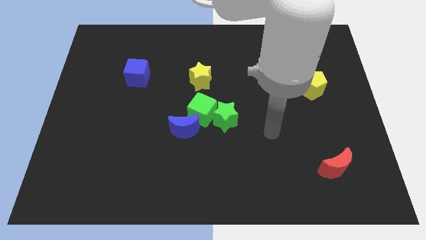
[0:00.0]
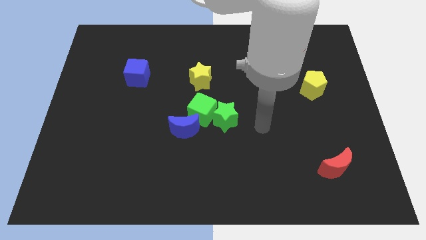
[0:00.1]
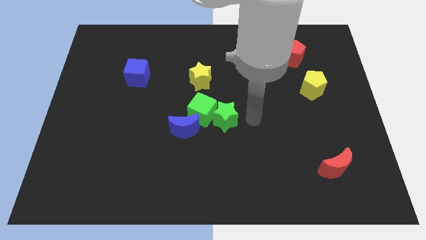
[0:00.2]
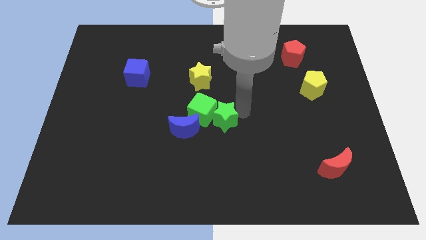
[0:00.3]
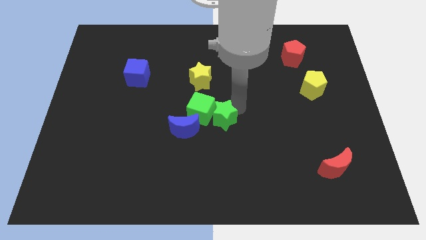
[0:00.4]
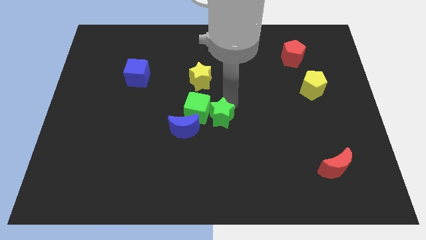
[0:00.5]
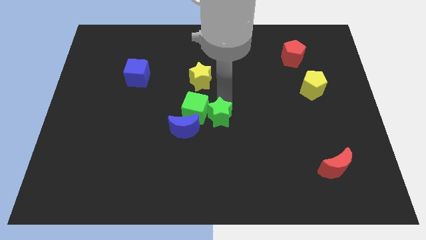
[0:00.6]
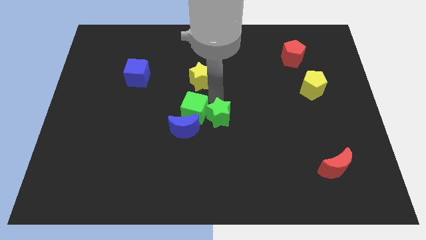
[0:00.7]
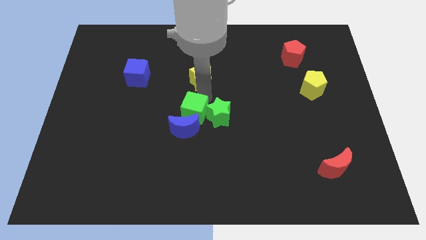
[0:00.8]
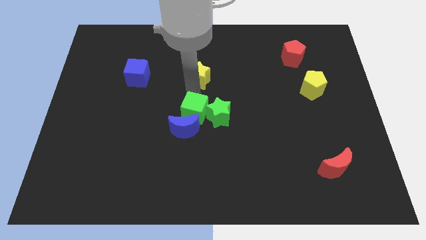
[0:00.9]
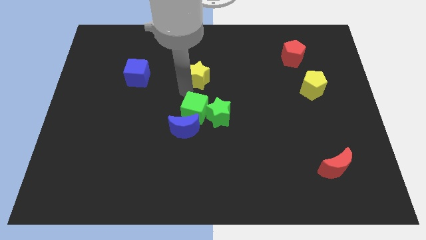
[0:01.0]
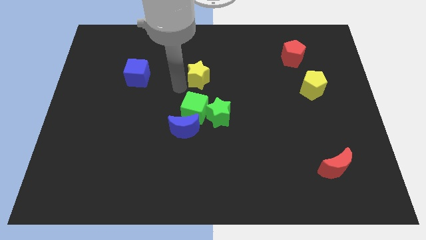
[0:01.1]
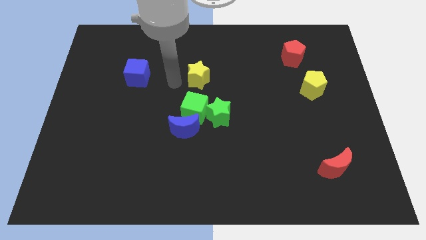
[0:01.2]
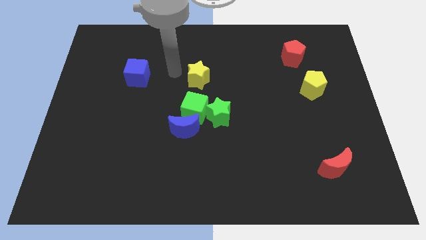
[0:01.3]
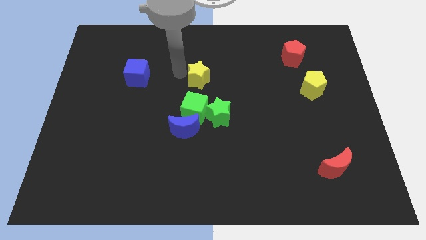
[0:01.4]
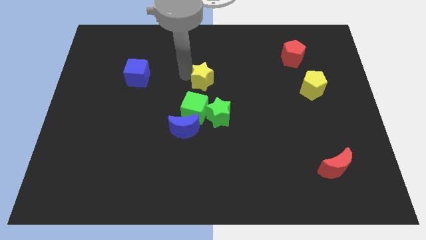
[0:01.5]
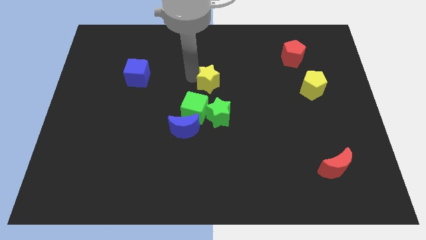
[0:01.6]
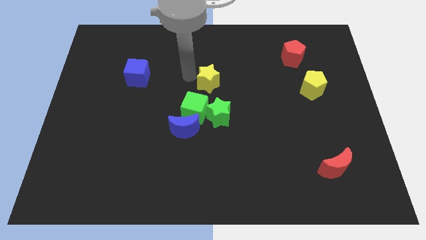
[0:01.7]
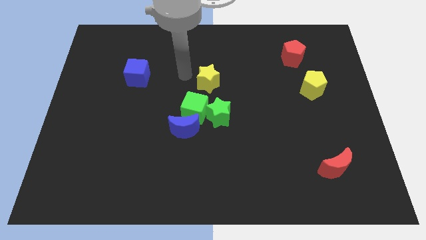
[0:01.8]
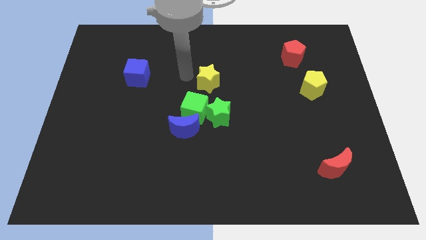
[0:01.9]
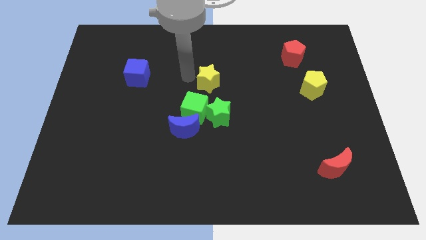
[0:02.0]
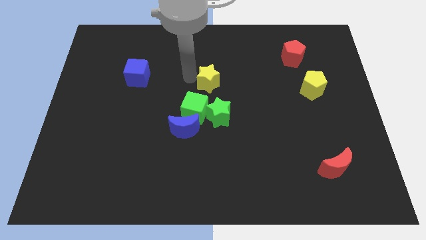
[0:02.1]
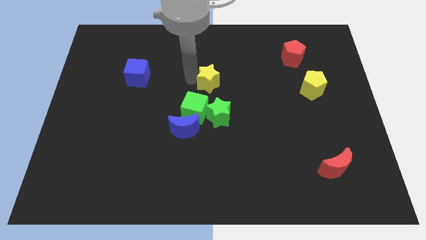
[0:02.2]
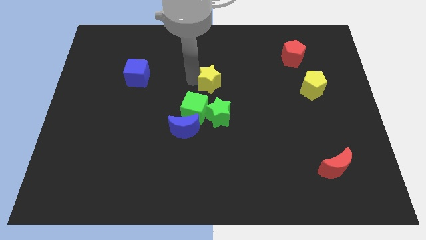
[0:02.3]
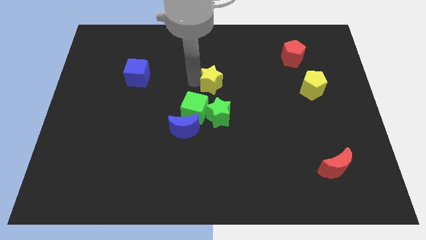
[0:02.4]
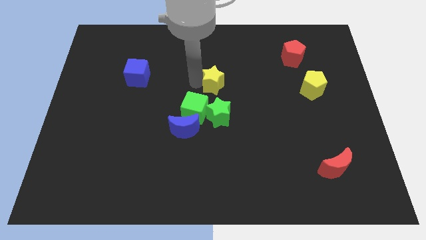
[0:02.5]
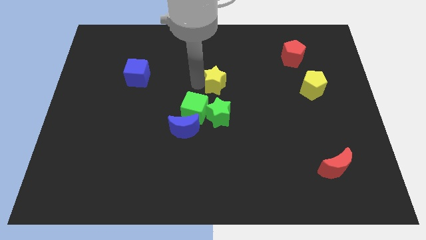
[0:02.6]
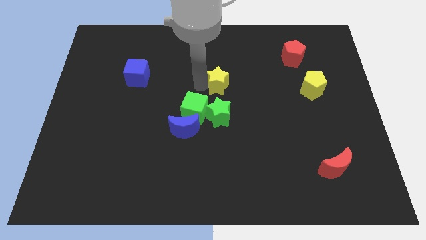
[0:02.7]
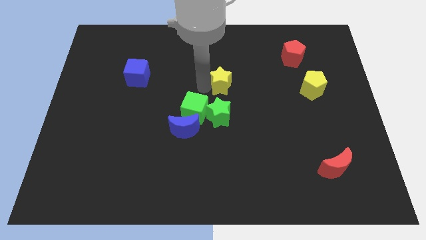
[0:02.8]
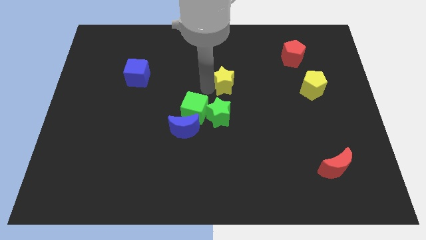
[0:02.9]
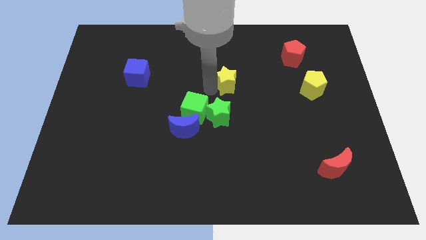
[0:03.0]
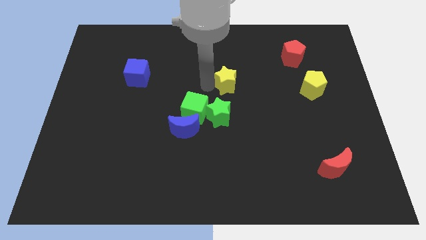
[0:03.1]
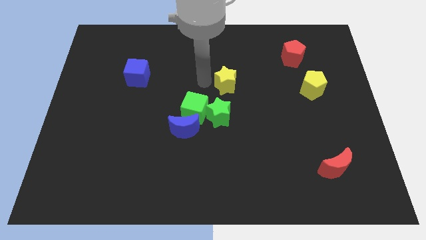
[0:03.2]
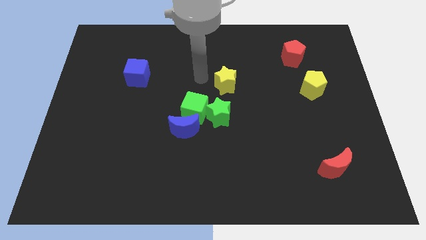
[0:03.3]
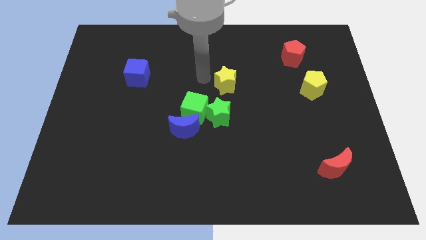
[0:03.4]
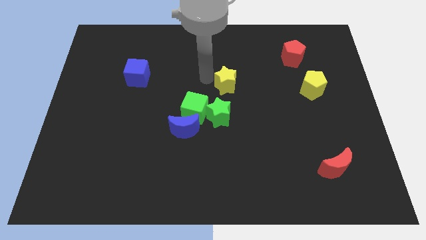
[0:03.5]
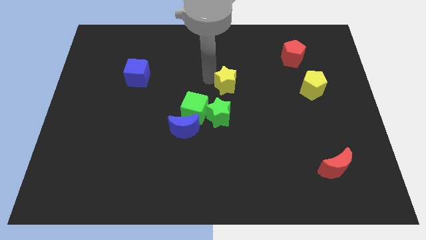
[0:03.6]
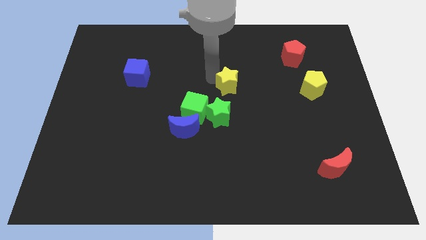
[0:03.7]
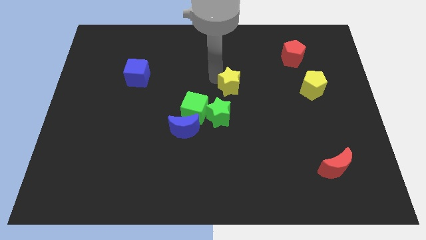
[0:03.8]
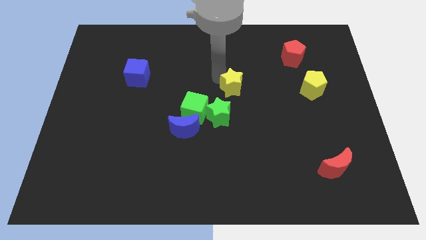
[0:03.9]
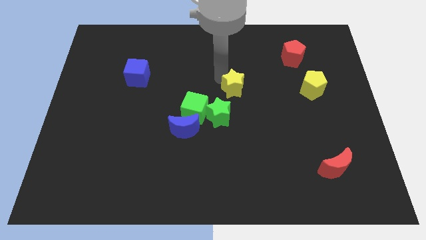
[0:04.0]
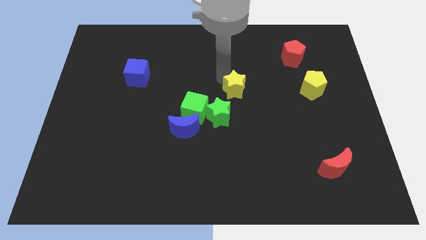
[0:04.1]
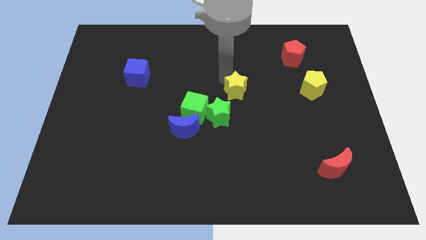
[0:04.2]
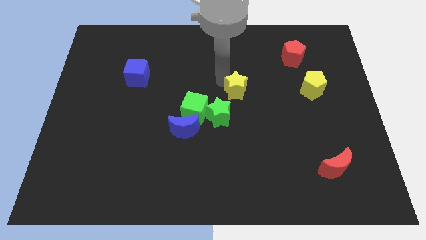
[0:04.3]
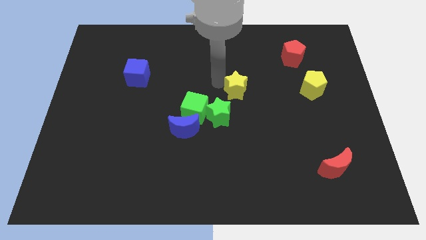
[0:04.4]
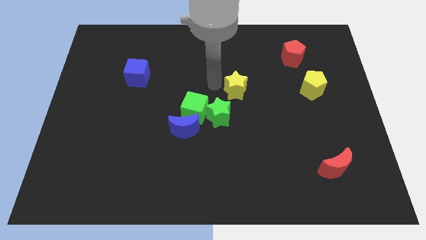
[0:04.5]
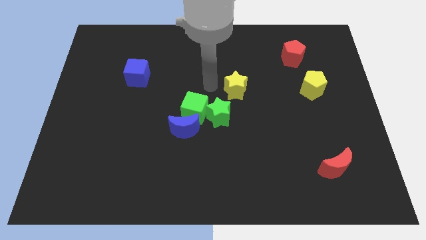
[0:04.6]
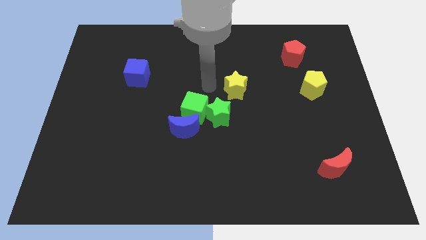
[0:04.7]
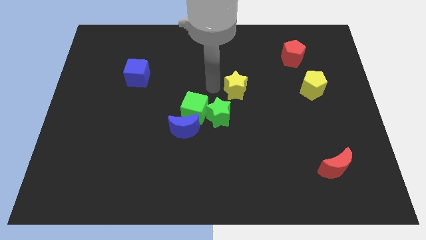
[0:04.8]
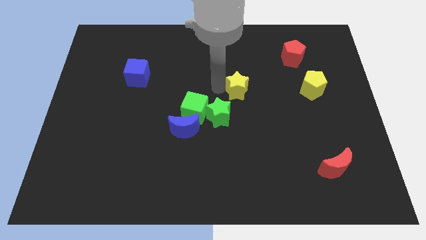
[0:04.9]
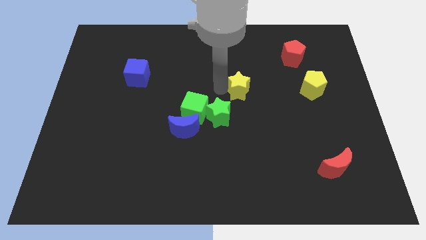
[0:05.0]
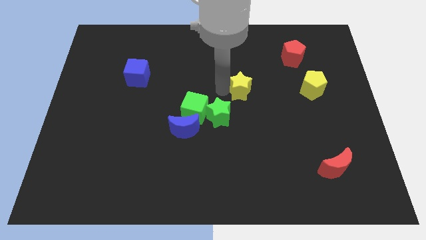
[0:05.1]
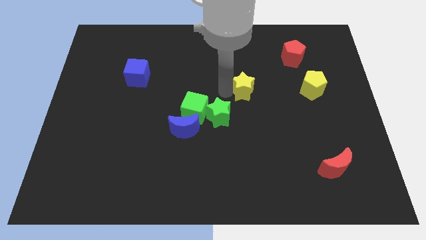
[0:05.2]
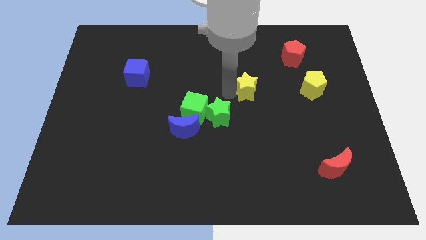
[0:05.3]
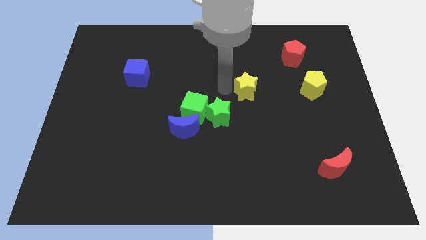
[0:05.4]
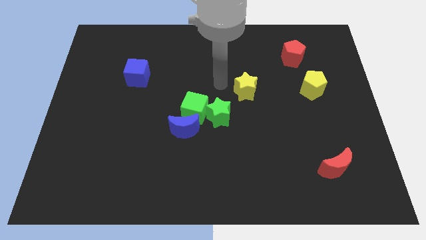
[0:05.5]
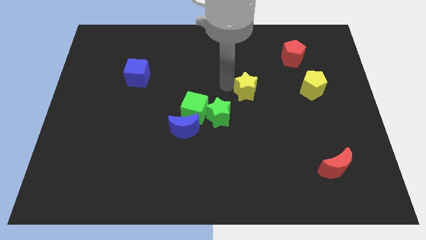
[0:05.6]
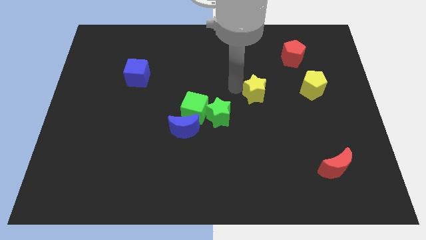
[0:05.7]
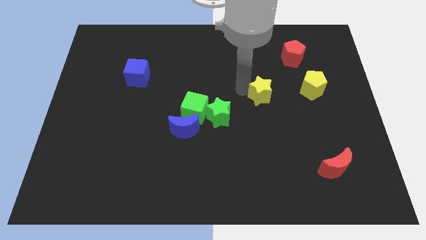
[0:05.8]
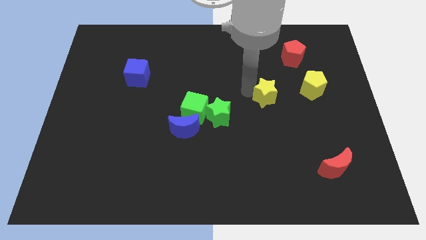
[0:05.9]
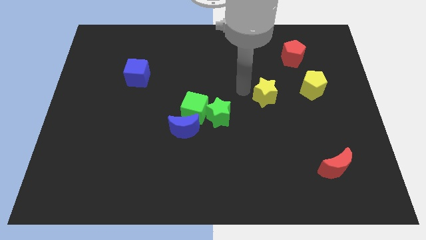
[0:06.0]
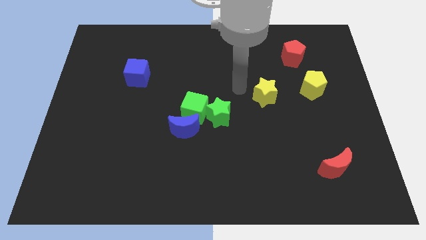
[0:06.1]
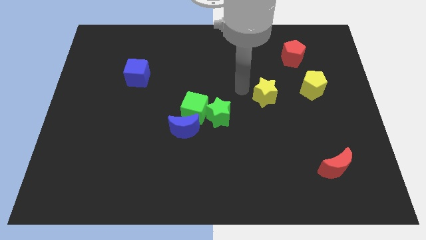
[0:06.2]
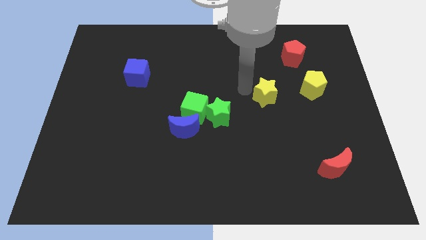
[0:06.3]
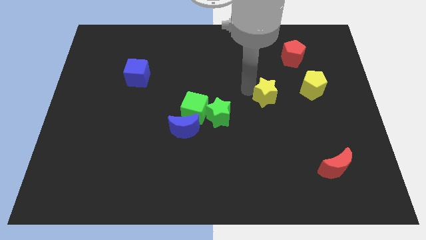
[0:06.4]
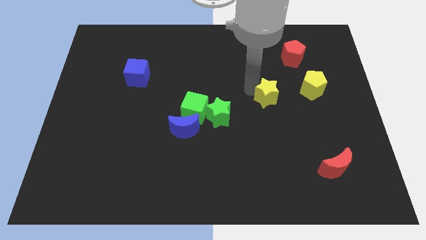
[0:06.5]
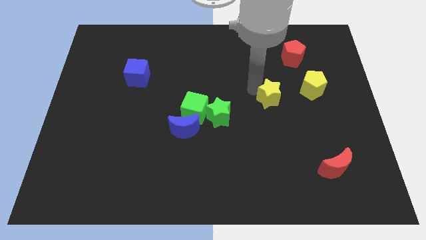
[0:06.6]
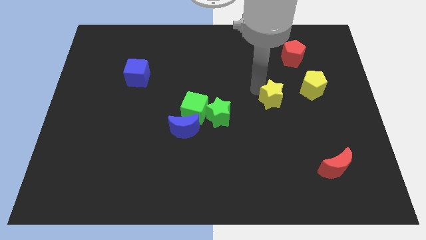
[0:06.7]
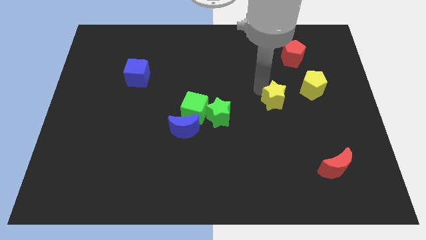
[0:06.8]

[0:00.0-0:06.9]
put the yellow star diagonally down and to the left of the yellow pentagon

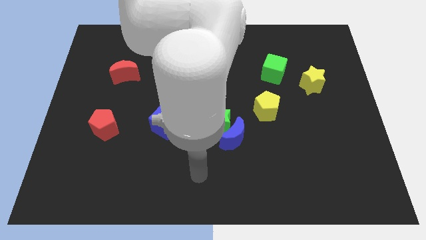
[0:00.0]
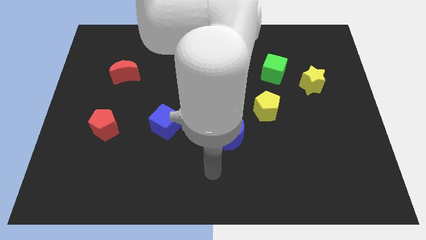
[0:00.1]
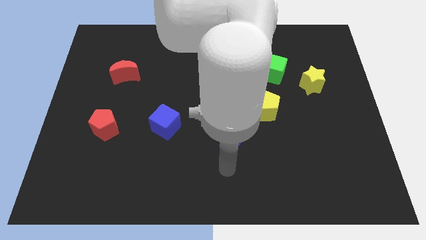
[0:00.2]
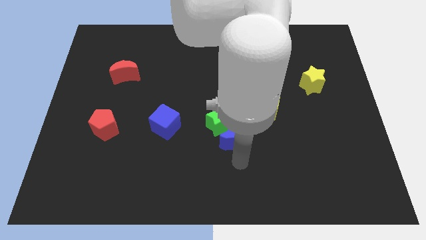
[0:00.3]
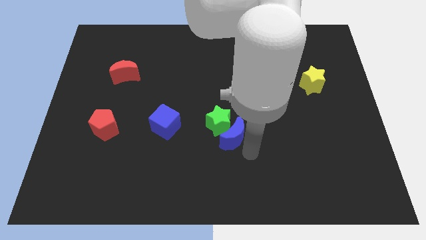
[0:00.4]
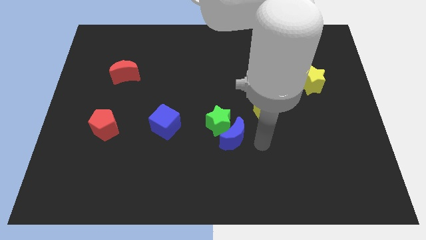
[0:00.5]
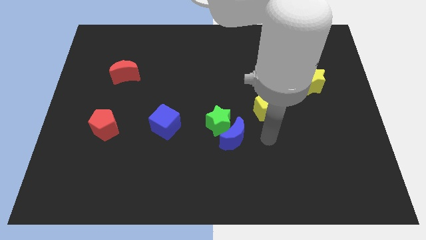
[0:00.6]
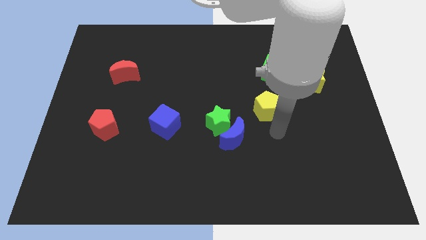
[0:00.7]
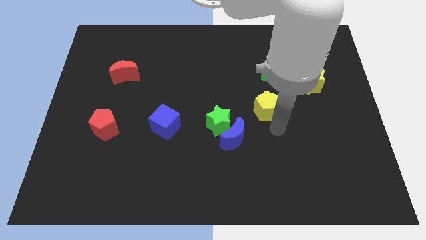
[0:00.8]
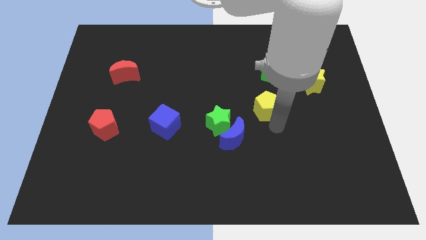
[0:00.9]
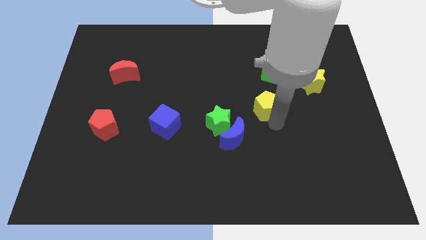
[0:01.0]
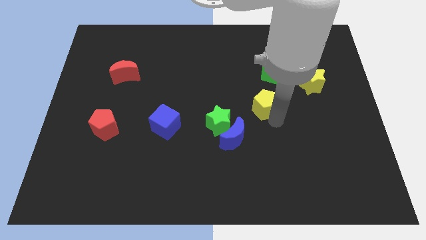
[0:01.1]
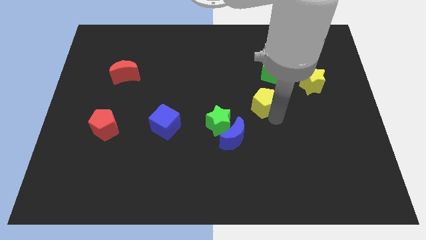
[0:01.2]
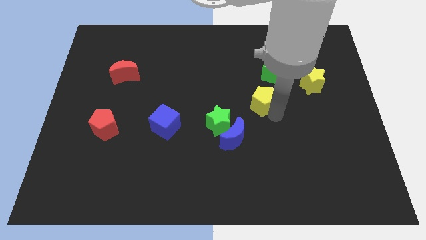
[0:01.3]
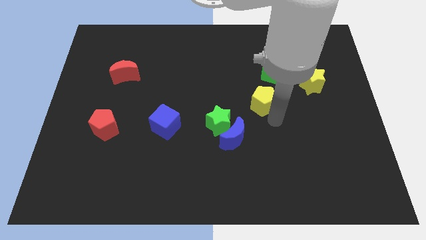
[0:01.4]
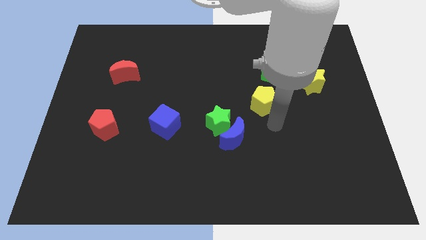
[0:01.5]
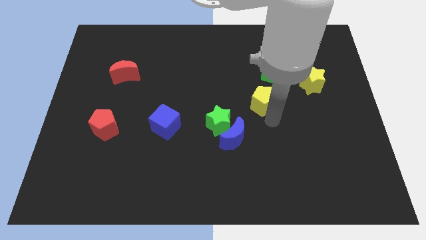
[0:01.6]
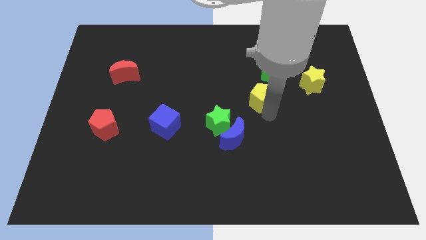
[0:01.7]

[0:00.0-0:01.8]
put the yellow pentagon to the bottom left side of the green cube
